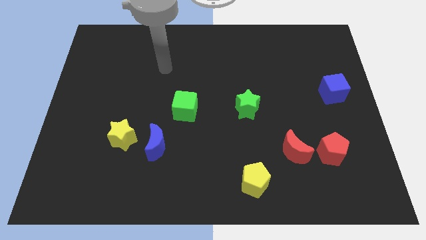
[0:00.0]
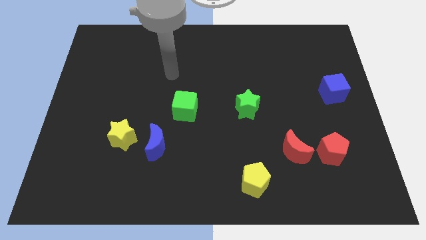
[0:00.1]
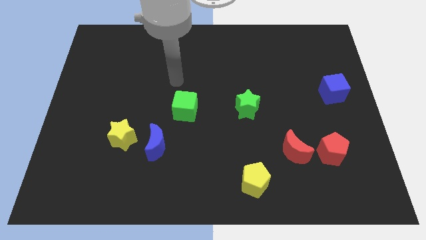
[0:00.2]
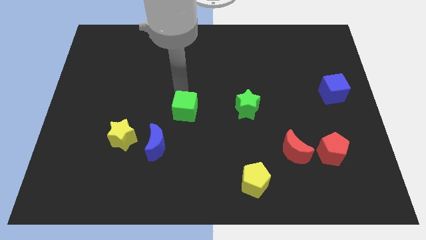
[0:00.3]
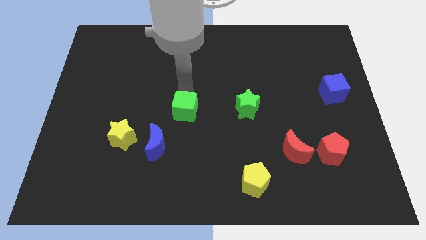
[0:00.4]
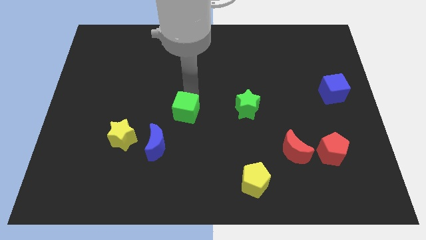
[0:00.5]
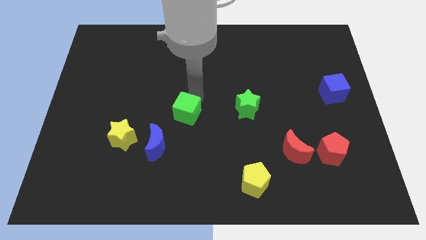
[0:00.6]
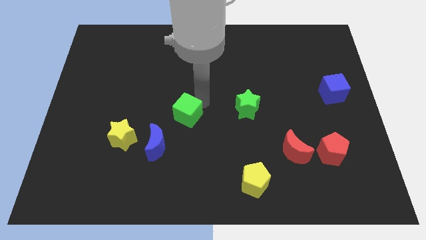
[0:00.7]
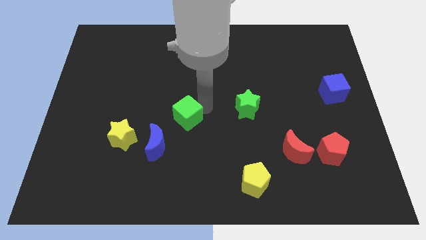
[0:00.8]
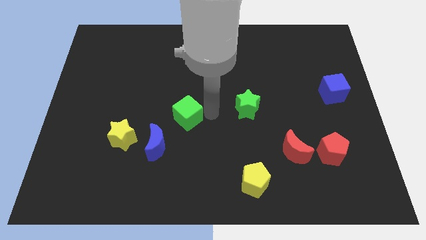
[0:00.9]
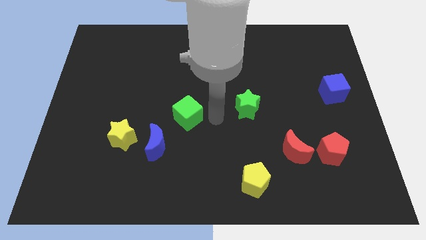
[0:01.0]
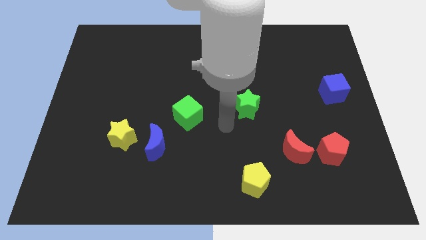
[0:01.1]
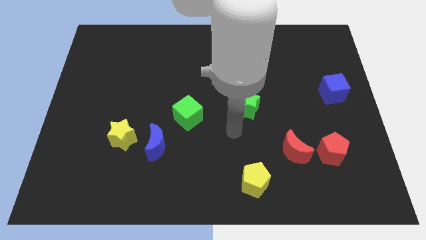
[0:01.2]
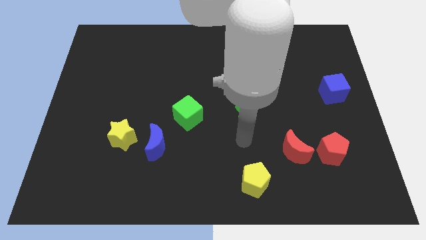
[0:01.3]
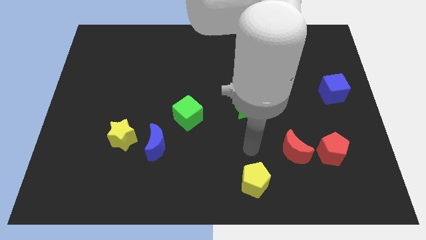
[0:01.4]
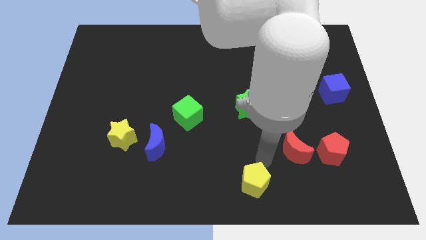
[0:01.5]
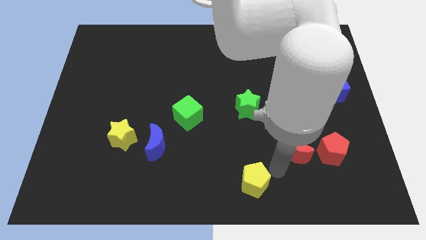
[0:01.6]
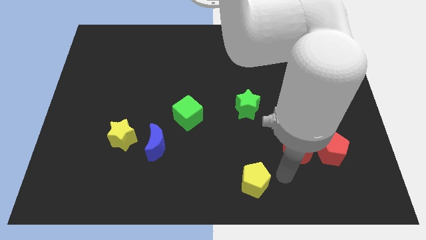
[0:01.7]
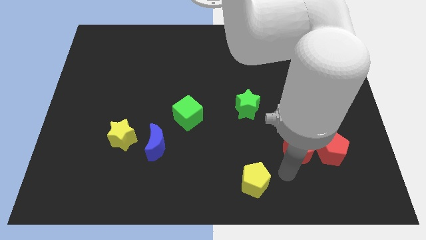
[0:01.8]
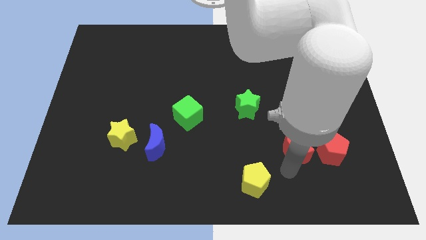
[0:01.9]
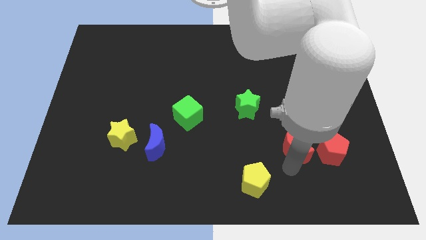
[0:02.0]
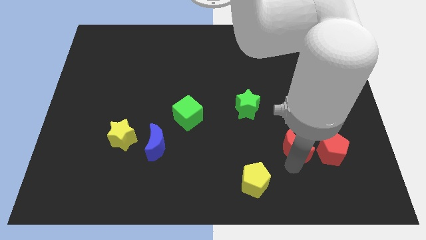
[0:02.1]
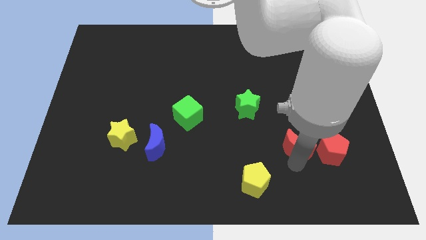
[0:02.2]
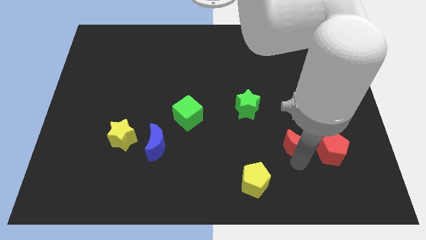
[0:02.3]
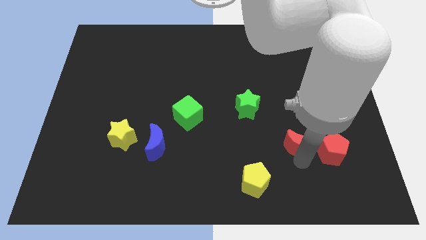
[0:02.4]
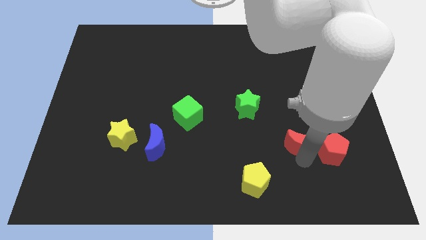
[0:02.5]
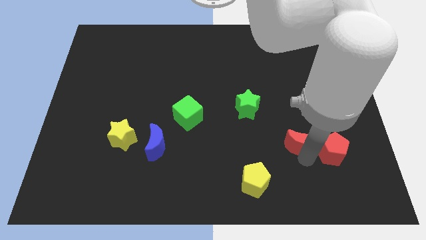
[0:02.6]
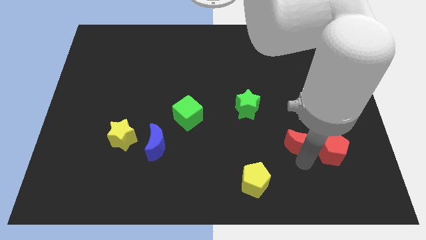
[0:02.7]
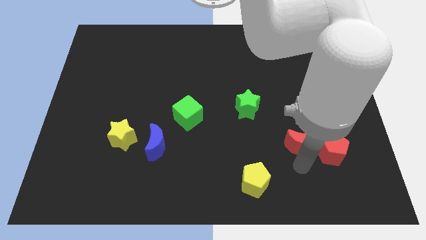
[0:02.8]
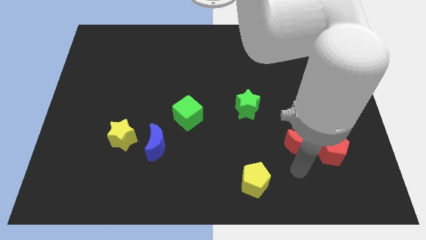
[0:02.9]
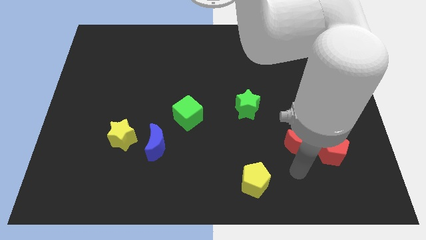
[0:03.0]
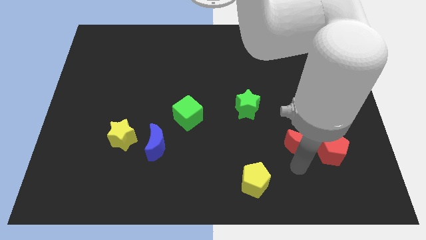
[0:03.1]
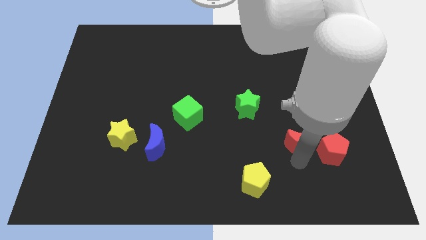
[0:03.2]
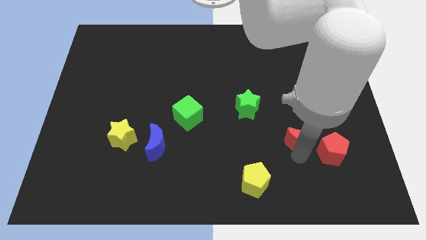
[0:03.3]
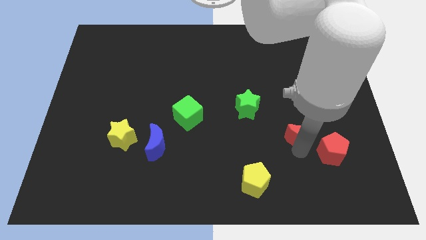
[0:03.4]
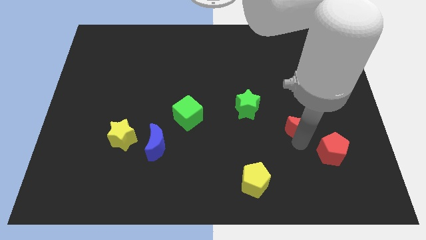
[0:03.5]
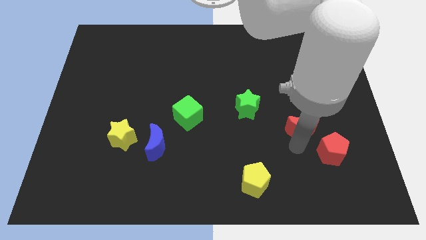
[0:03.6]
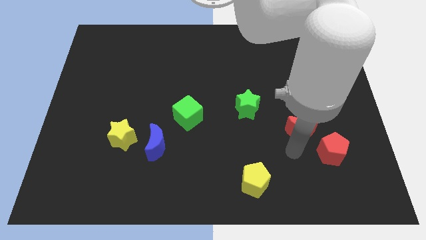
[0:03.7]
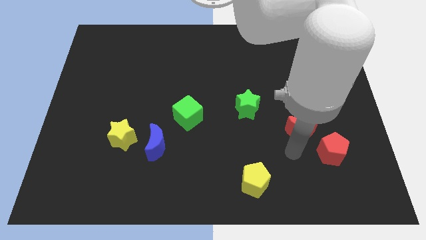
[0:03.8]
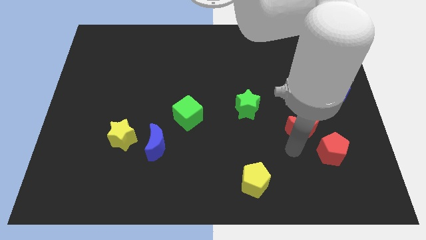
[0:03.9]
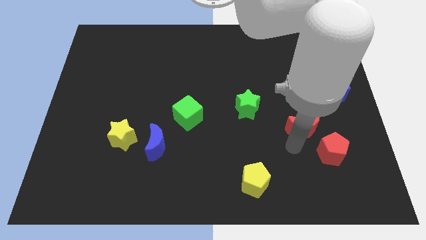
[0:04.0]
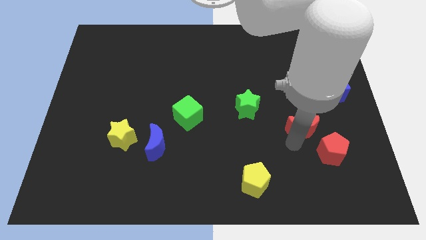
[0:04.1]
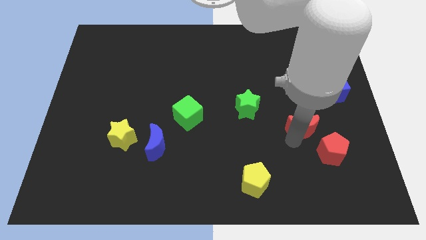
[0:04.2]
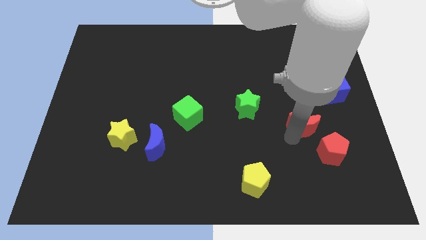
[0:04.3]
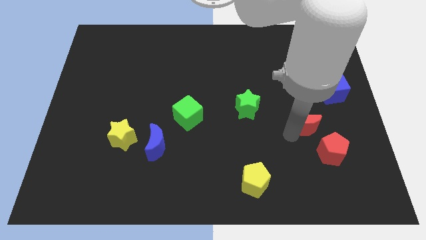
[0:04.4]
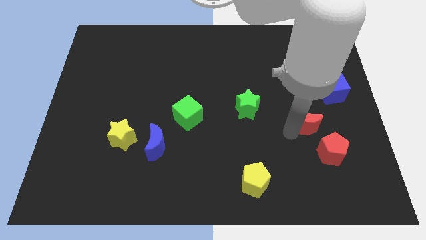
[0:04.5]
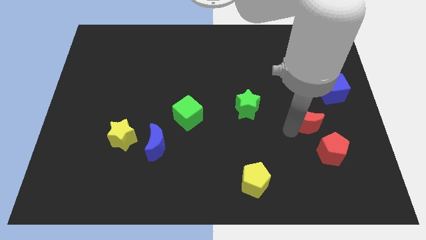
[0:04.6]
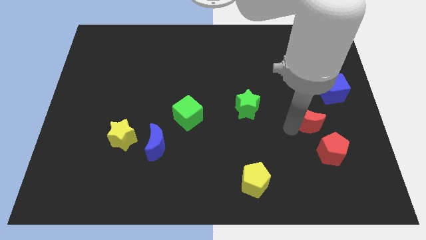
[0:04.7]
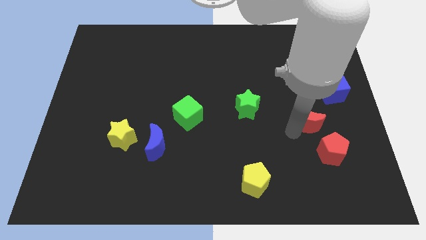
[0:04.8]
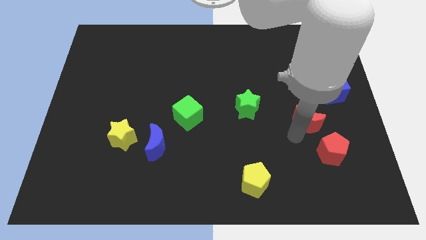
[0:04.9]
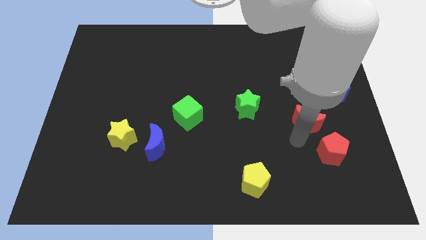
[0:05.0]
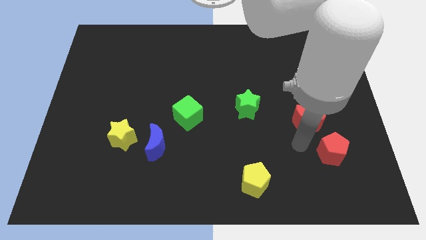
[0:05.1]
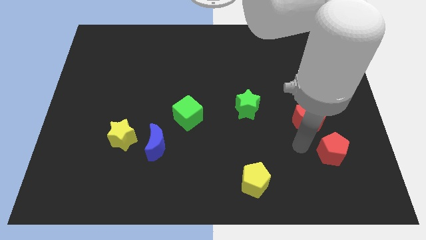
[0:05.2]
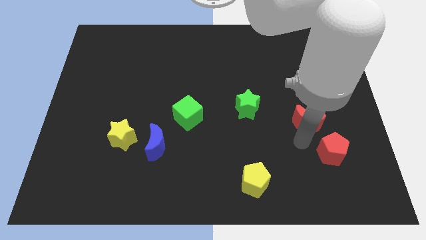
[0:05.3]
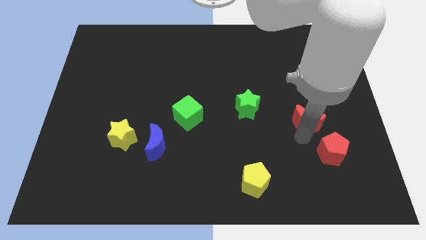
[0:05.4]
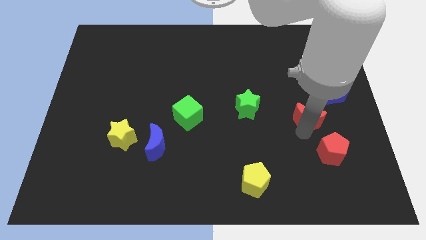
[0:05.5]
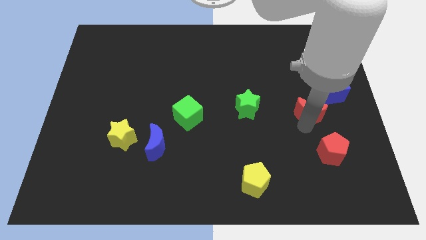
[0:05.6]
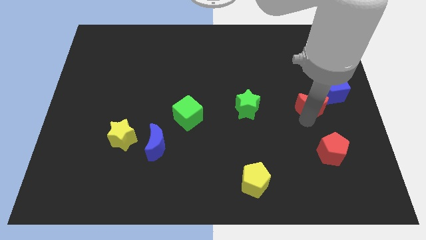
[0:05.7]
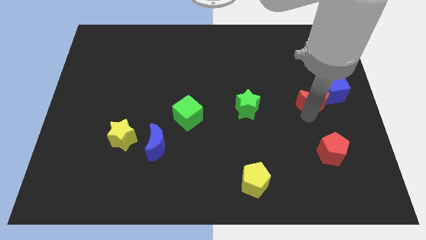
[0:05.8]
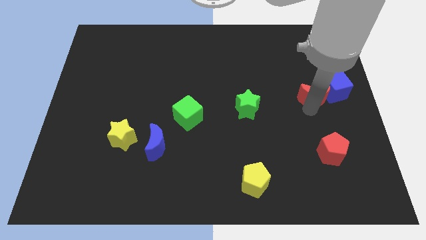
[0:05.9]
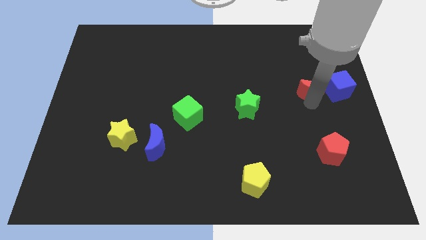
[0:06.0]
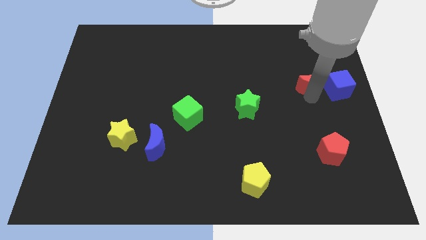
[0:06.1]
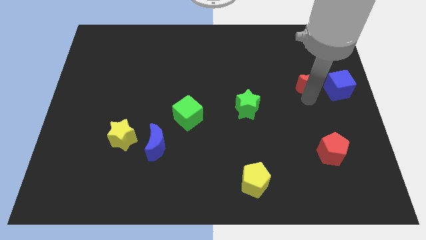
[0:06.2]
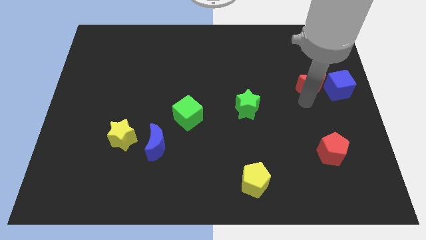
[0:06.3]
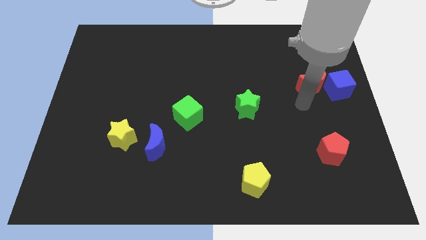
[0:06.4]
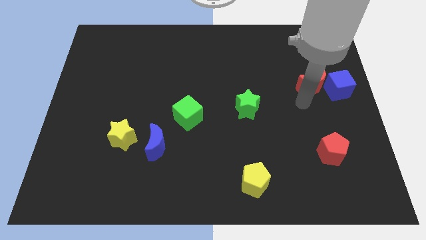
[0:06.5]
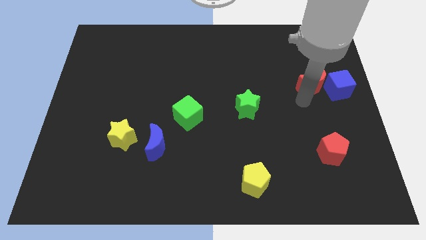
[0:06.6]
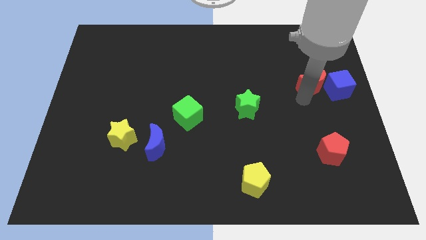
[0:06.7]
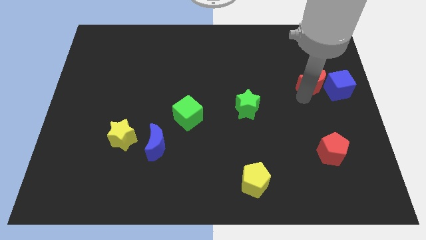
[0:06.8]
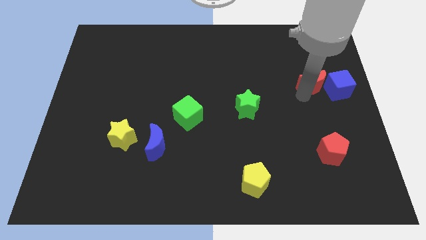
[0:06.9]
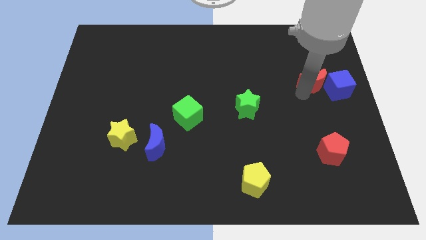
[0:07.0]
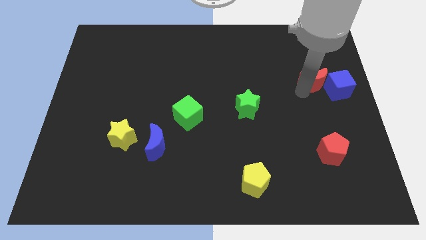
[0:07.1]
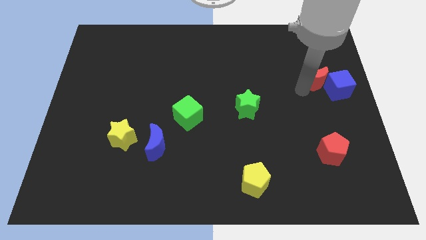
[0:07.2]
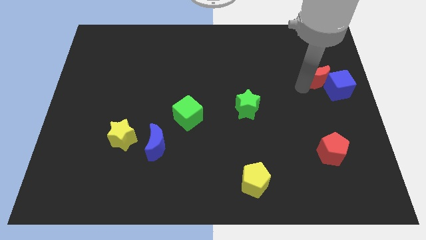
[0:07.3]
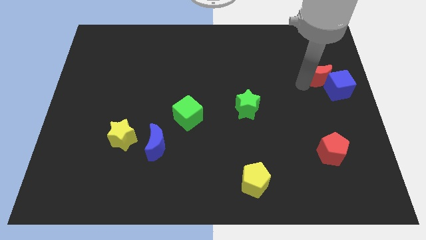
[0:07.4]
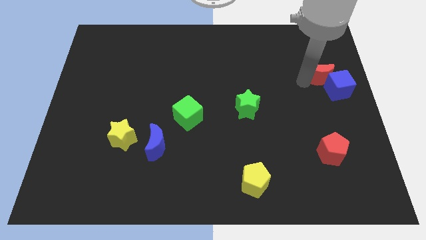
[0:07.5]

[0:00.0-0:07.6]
move the red moon above the blue cube
